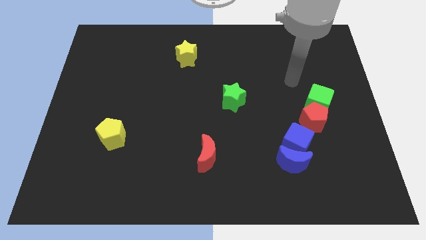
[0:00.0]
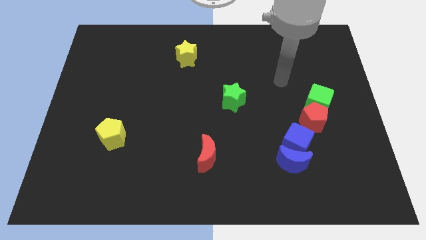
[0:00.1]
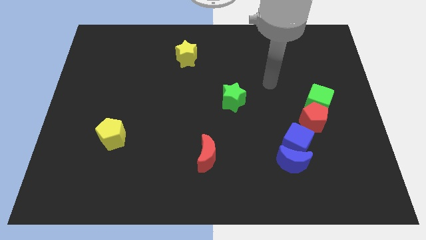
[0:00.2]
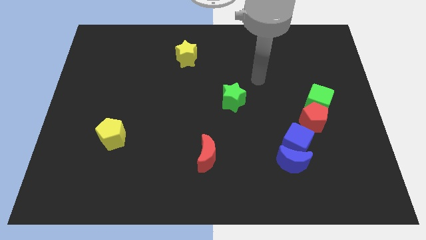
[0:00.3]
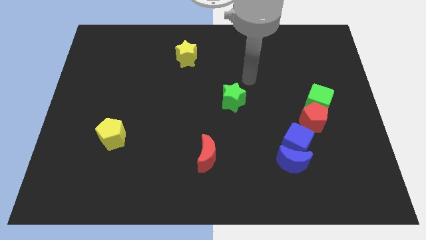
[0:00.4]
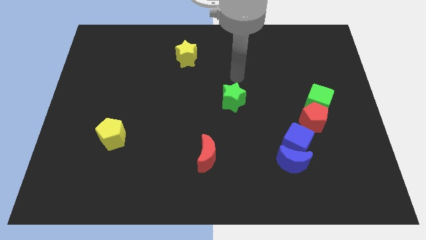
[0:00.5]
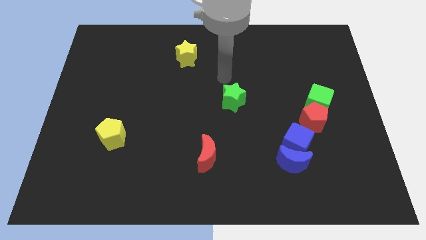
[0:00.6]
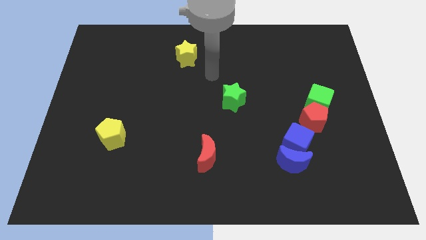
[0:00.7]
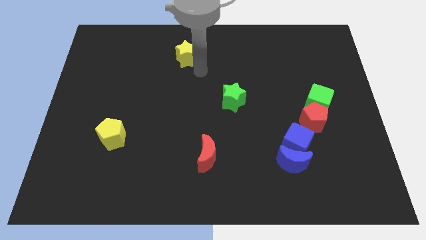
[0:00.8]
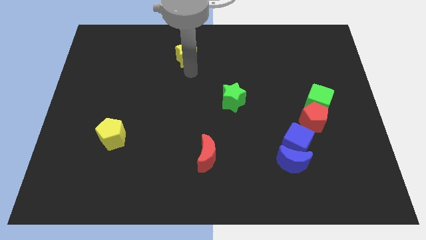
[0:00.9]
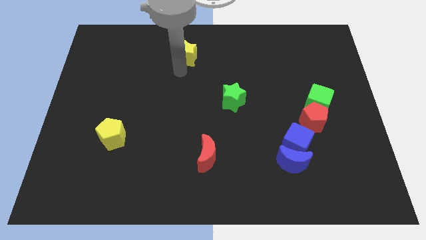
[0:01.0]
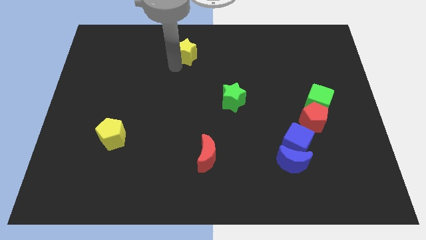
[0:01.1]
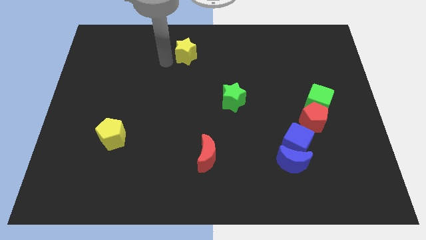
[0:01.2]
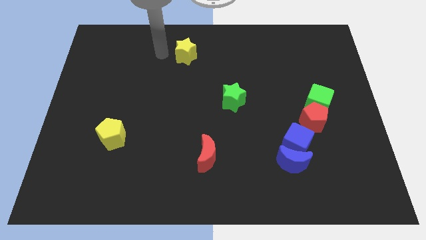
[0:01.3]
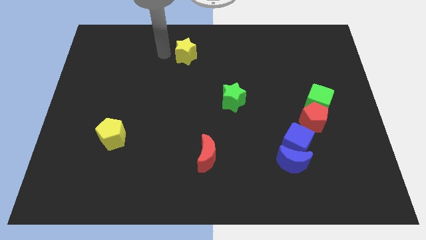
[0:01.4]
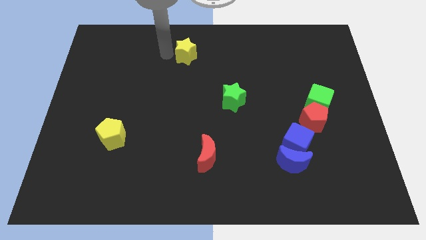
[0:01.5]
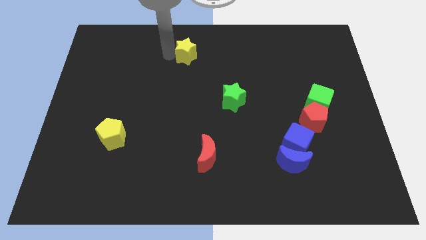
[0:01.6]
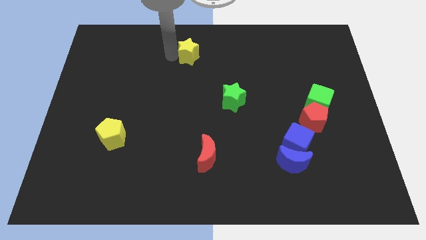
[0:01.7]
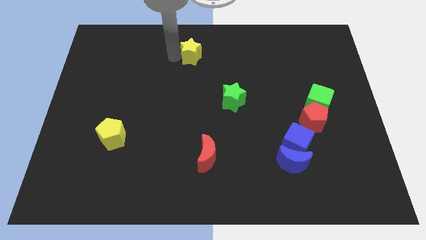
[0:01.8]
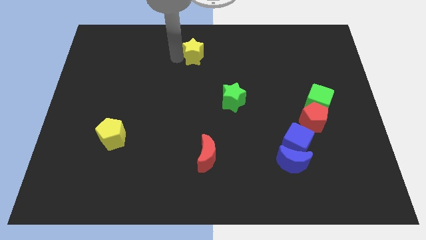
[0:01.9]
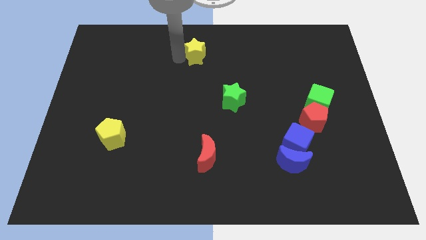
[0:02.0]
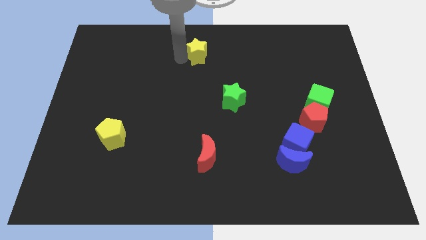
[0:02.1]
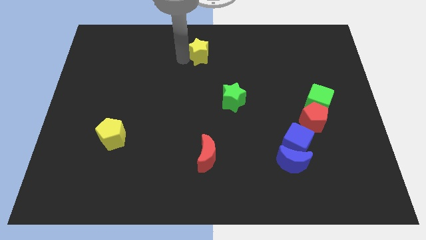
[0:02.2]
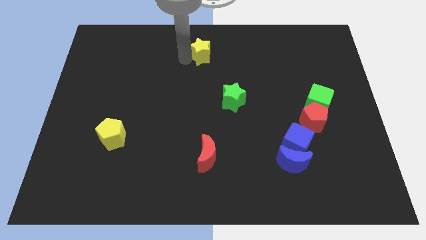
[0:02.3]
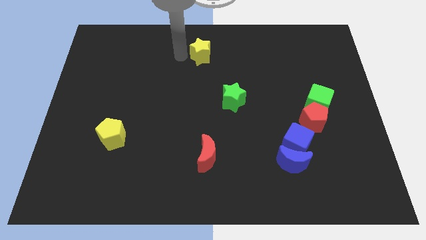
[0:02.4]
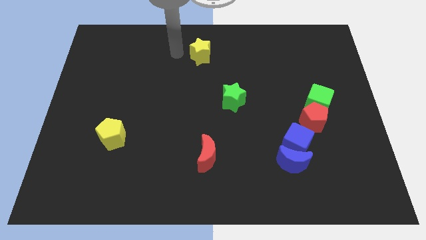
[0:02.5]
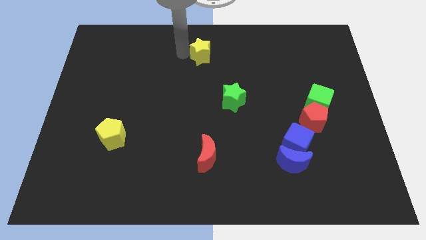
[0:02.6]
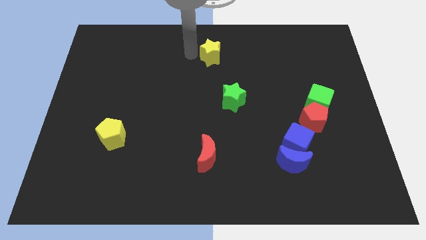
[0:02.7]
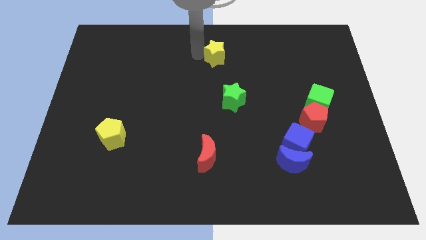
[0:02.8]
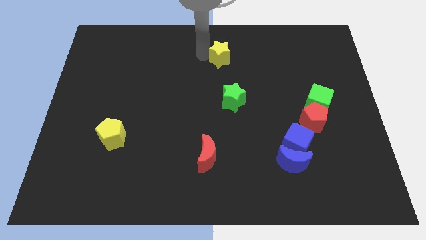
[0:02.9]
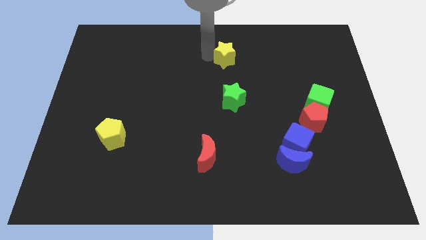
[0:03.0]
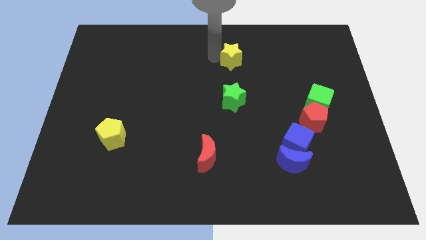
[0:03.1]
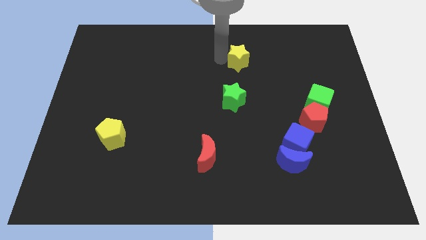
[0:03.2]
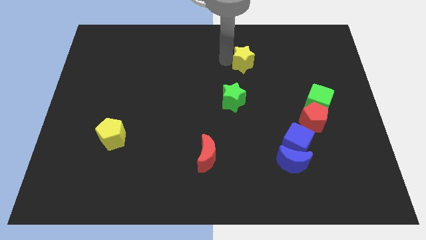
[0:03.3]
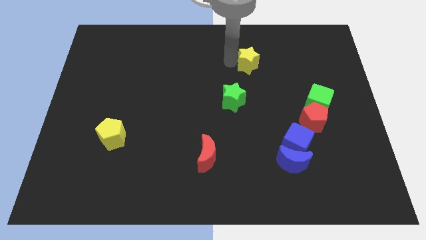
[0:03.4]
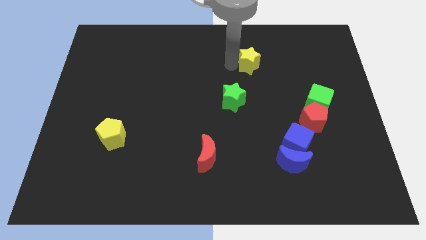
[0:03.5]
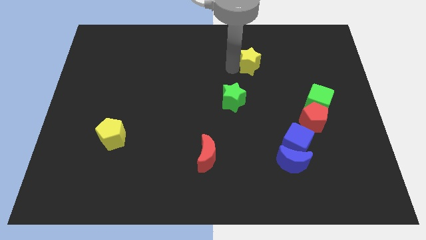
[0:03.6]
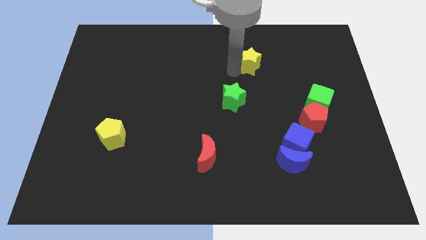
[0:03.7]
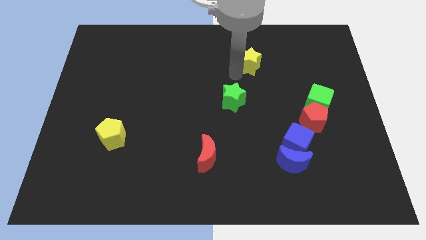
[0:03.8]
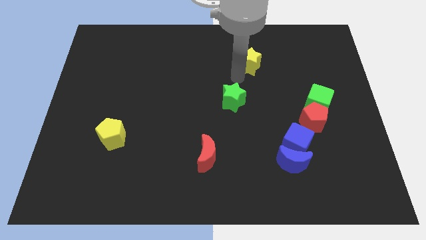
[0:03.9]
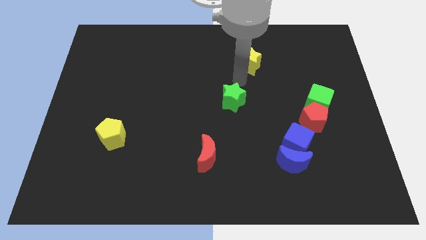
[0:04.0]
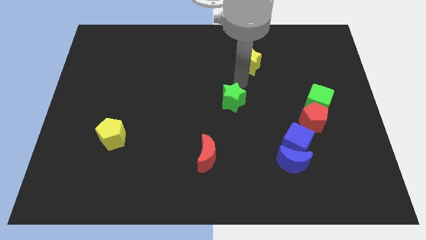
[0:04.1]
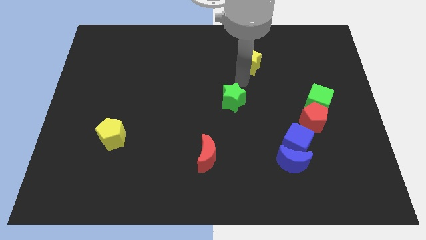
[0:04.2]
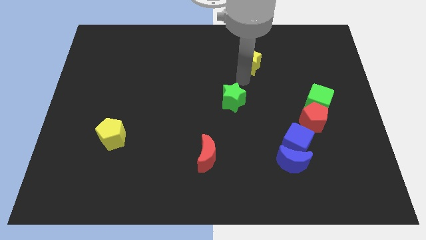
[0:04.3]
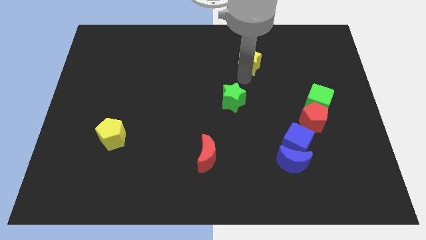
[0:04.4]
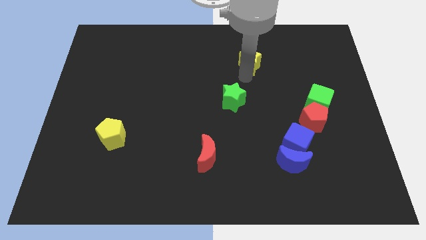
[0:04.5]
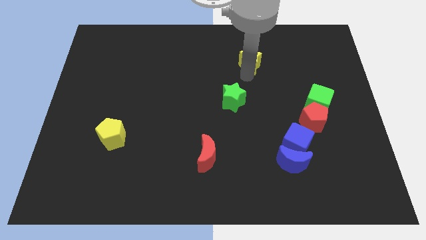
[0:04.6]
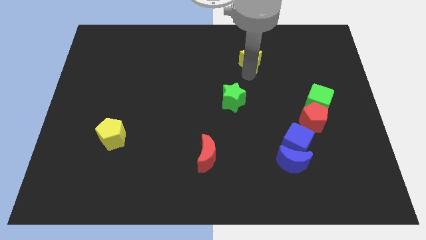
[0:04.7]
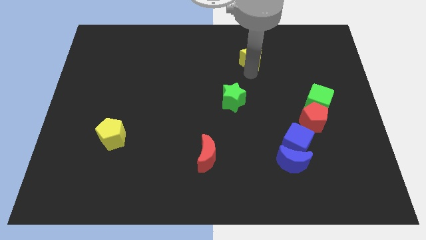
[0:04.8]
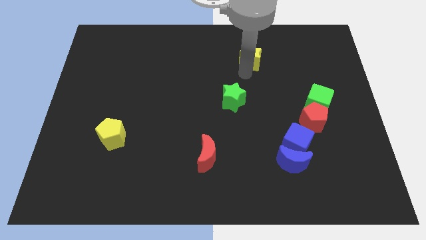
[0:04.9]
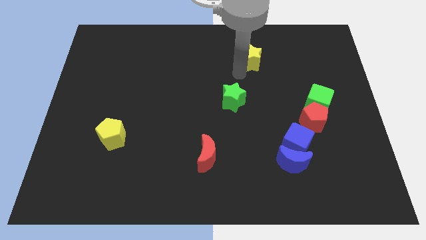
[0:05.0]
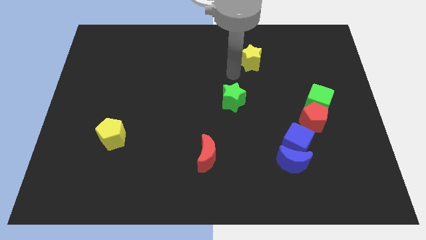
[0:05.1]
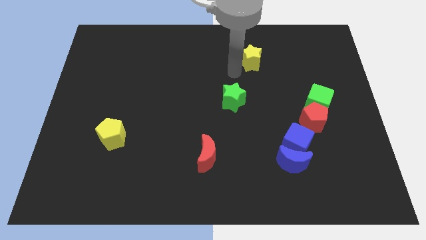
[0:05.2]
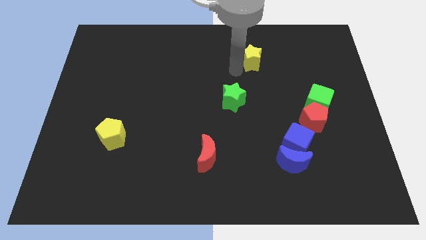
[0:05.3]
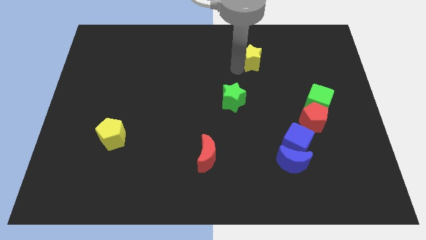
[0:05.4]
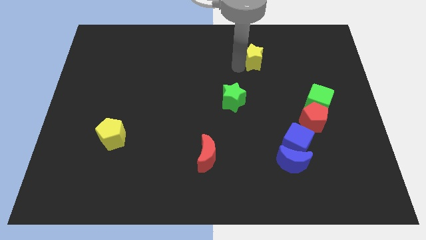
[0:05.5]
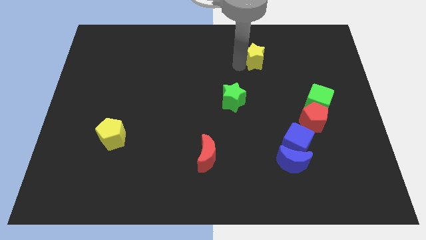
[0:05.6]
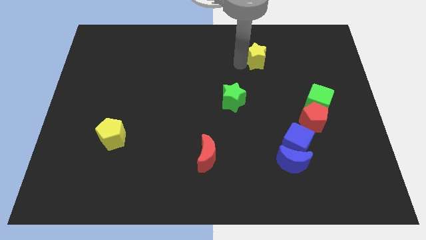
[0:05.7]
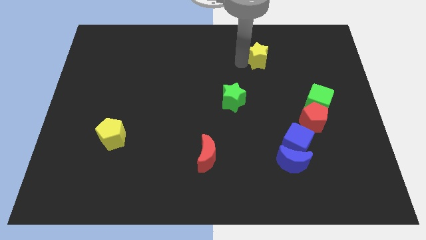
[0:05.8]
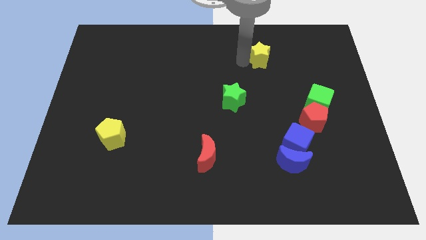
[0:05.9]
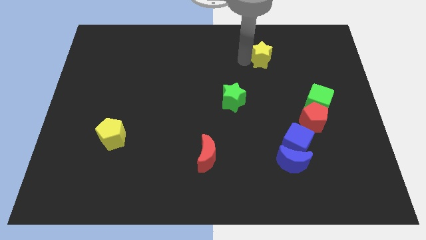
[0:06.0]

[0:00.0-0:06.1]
push the yellow star to the right

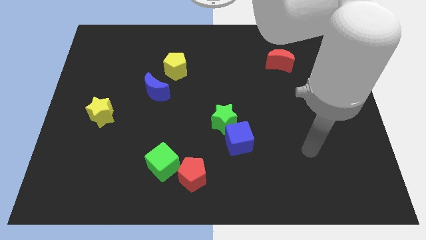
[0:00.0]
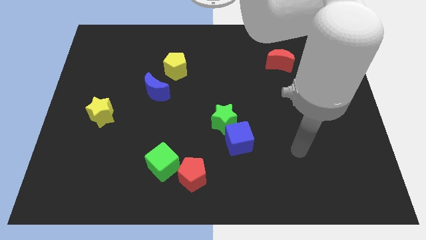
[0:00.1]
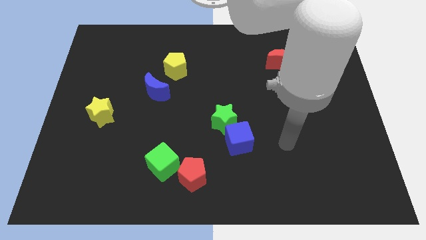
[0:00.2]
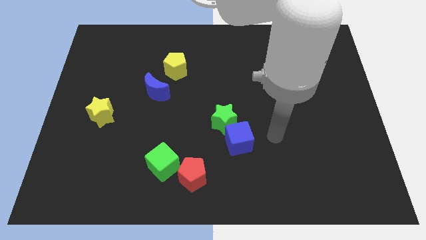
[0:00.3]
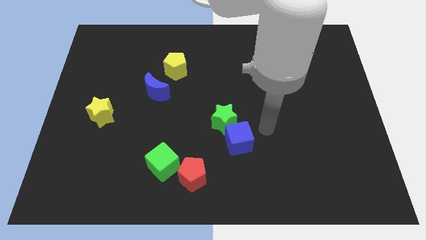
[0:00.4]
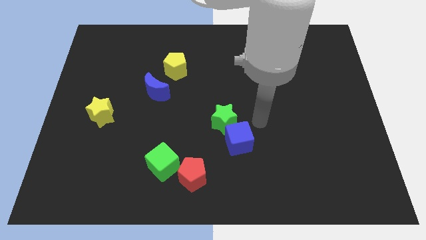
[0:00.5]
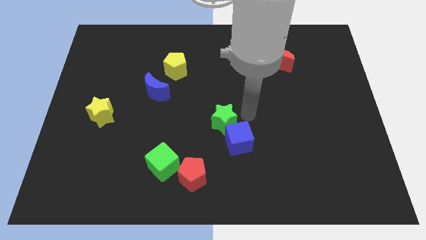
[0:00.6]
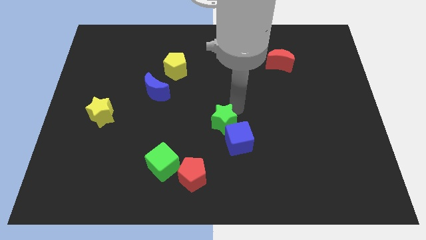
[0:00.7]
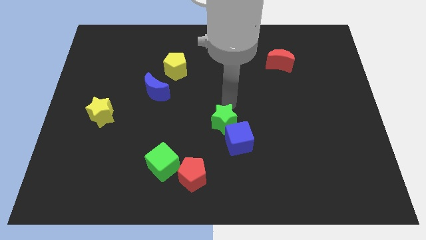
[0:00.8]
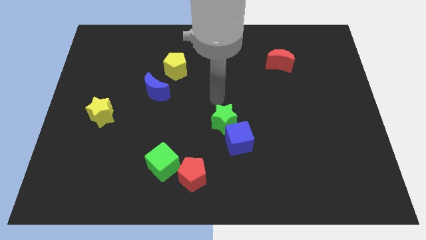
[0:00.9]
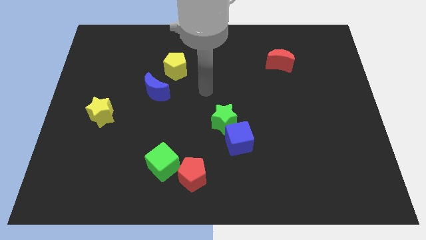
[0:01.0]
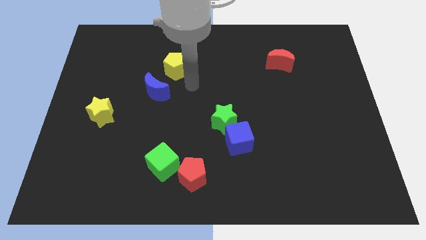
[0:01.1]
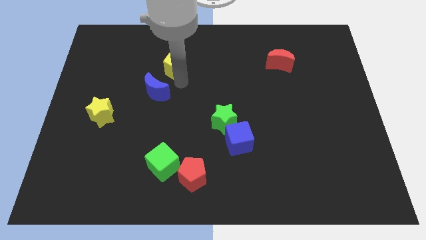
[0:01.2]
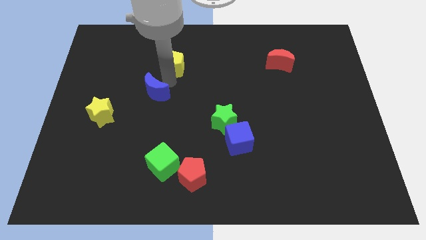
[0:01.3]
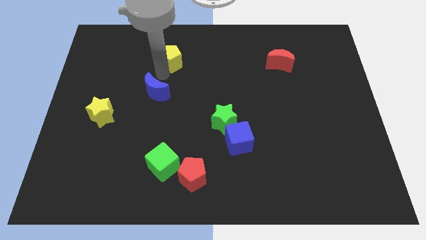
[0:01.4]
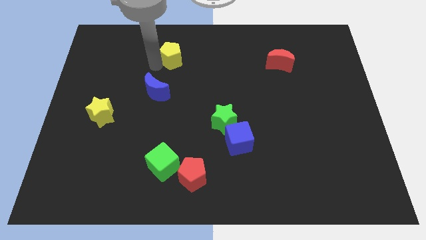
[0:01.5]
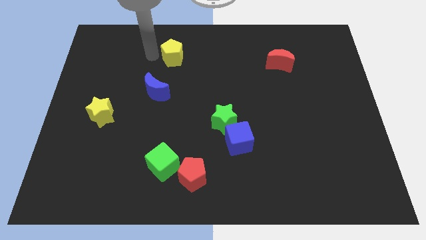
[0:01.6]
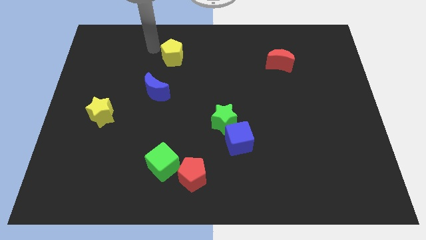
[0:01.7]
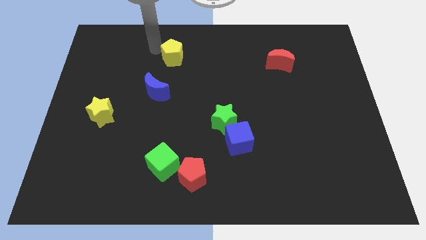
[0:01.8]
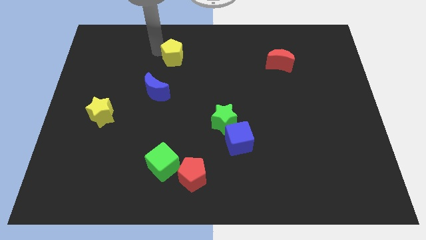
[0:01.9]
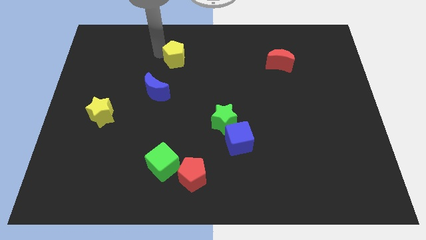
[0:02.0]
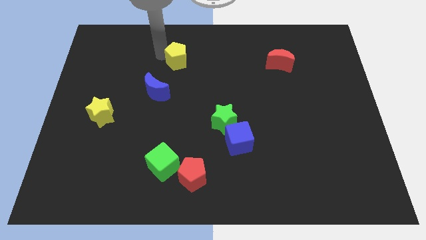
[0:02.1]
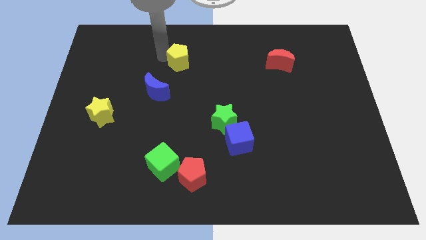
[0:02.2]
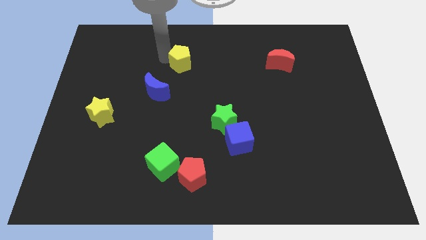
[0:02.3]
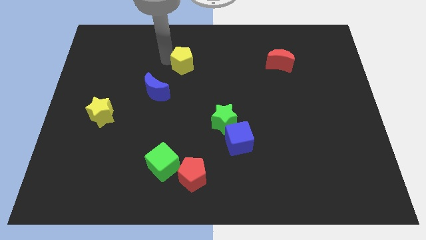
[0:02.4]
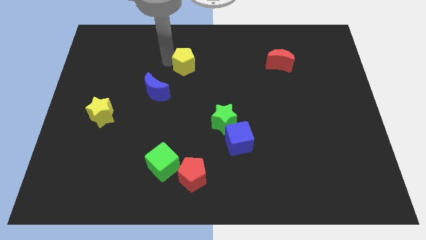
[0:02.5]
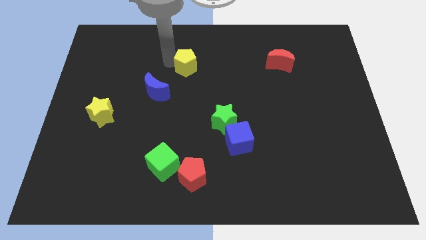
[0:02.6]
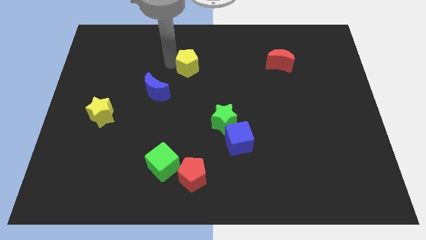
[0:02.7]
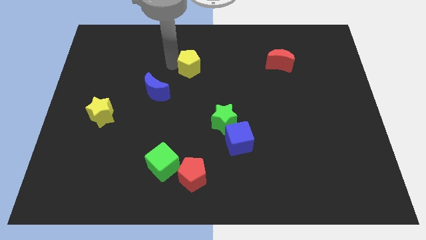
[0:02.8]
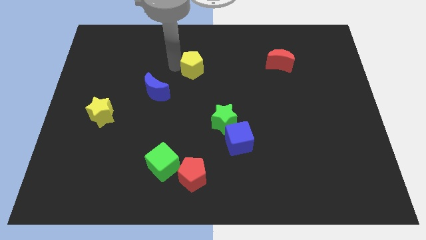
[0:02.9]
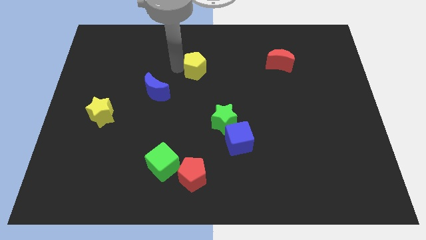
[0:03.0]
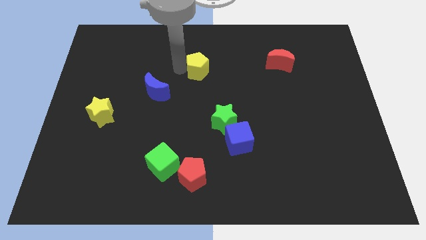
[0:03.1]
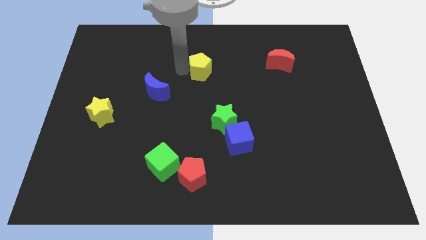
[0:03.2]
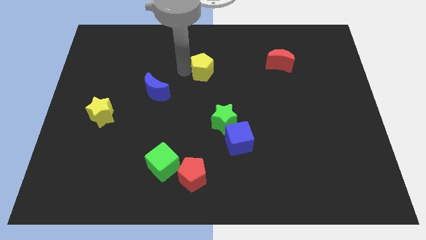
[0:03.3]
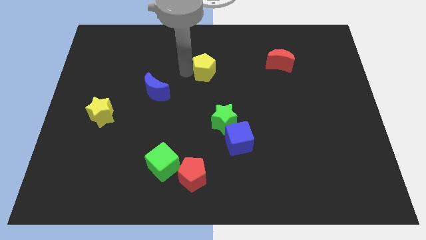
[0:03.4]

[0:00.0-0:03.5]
slightly slide the yellow pentagon to the right
